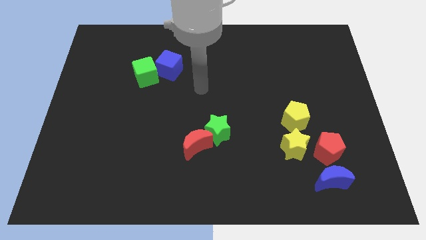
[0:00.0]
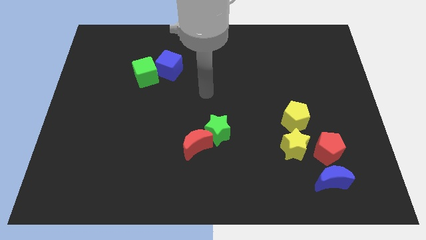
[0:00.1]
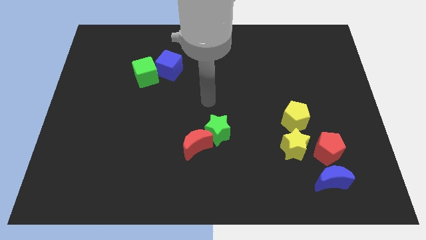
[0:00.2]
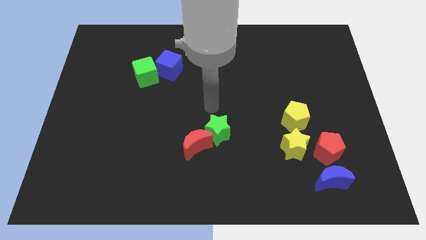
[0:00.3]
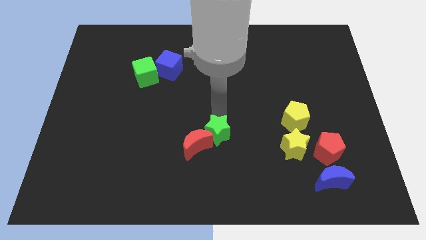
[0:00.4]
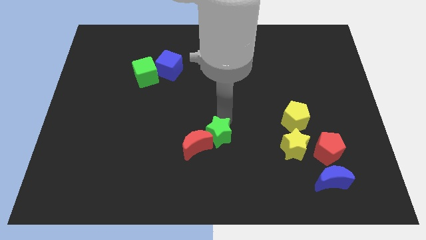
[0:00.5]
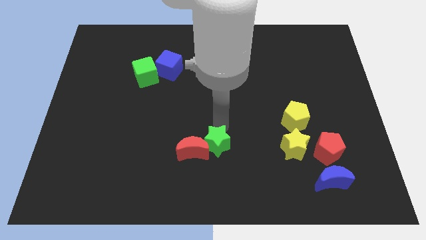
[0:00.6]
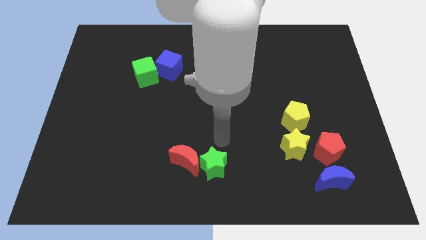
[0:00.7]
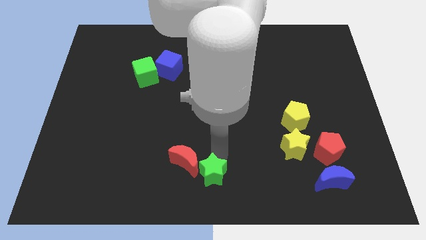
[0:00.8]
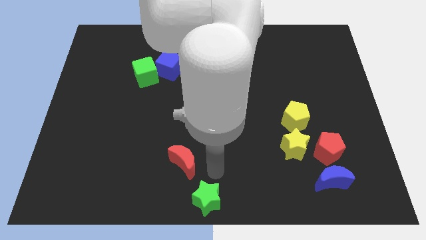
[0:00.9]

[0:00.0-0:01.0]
separate the red moon from the green star

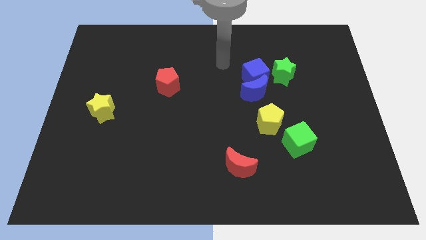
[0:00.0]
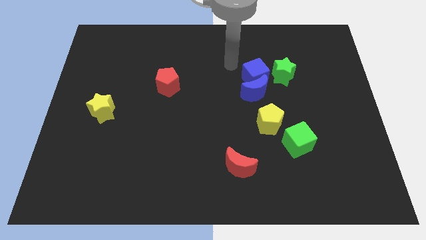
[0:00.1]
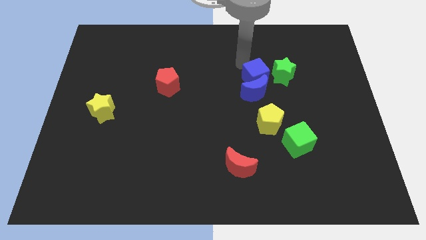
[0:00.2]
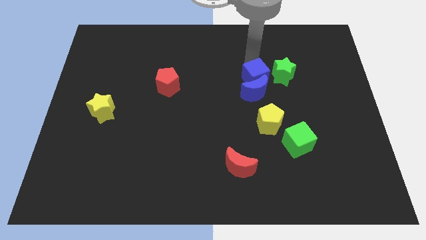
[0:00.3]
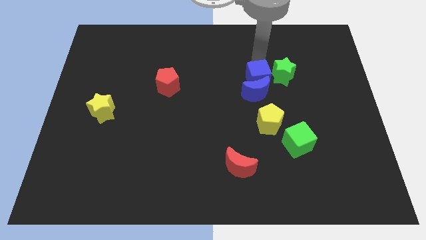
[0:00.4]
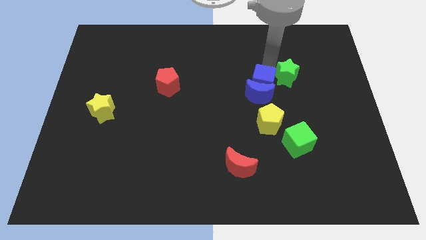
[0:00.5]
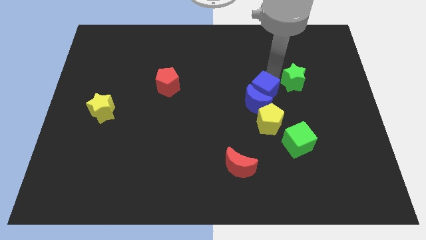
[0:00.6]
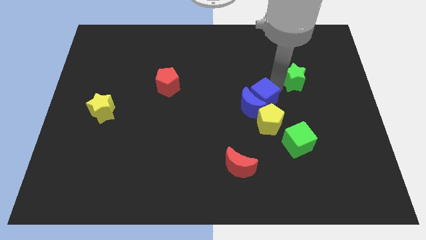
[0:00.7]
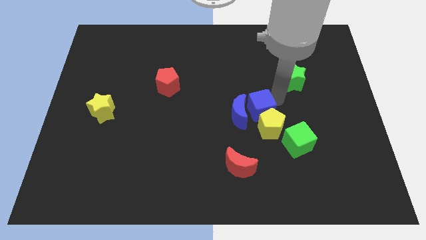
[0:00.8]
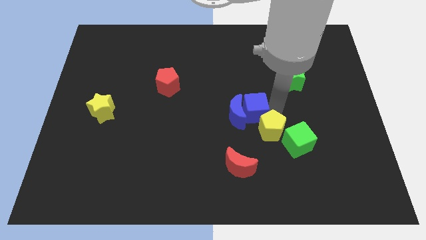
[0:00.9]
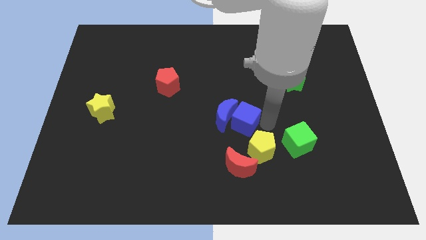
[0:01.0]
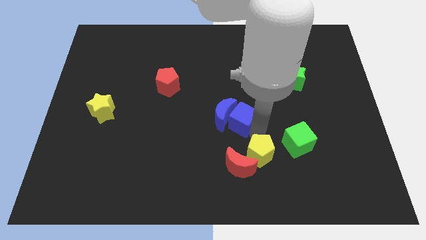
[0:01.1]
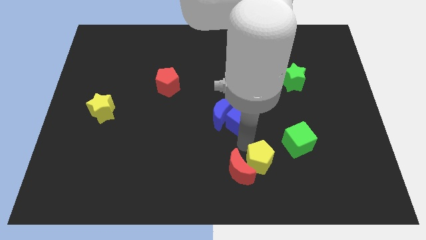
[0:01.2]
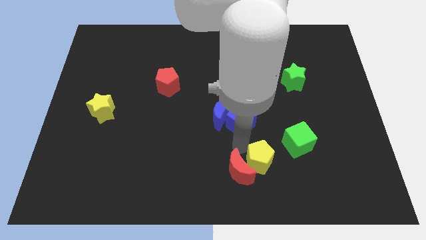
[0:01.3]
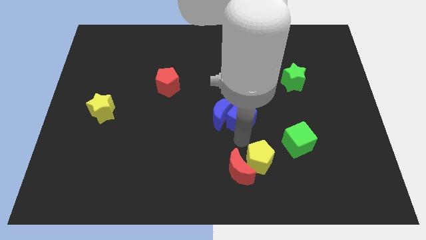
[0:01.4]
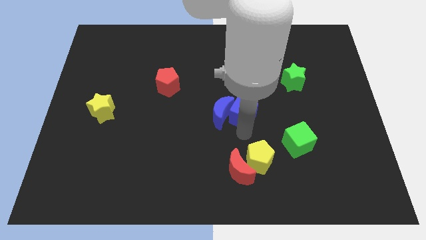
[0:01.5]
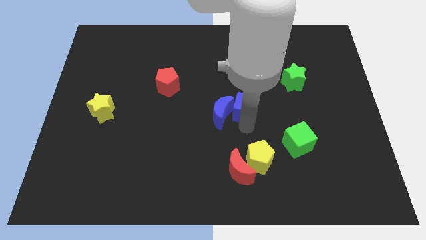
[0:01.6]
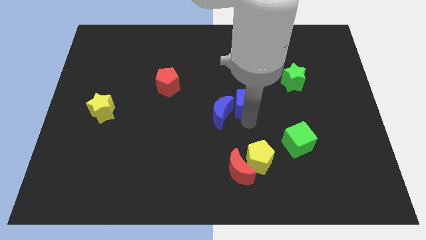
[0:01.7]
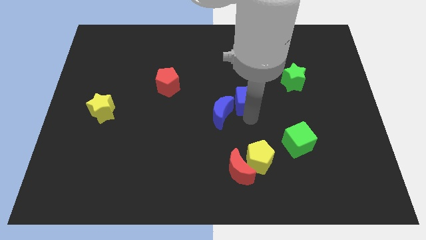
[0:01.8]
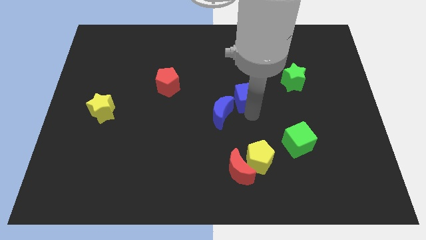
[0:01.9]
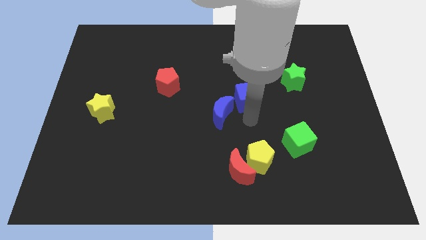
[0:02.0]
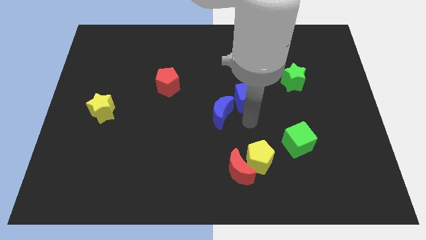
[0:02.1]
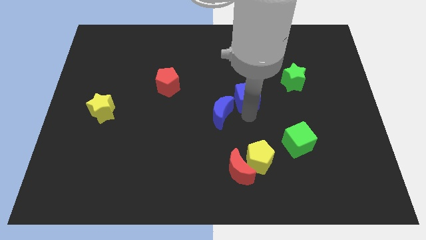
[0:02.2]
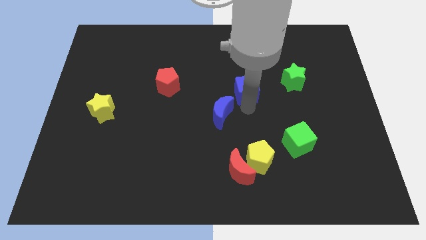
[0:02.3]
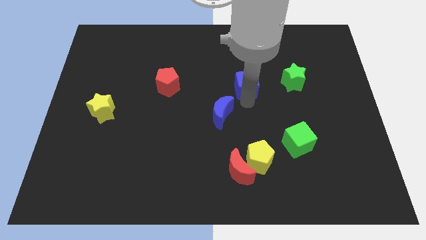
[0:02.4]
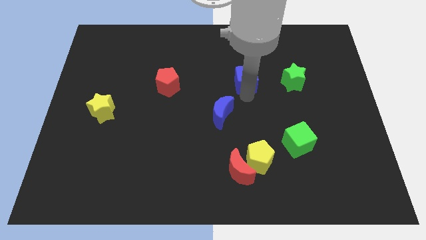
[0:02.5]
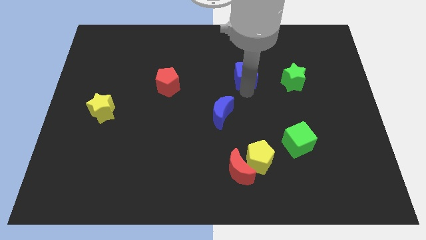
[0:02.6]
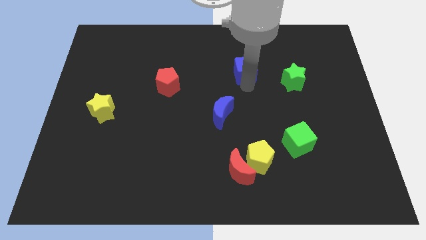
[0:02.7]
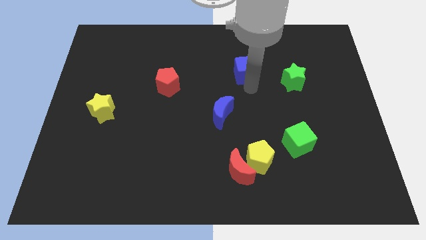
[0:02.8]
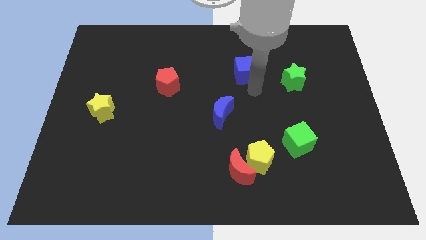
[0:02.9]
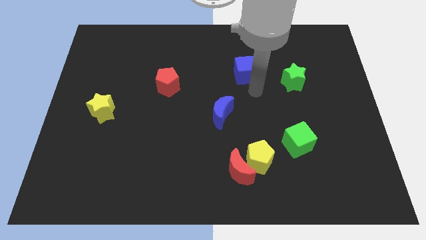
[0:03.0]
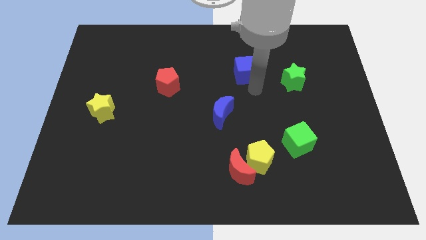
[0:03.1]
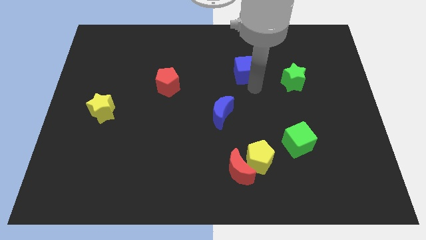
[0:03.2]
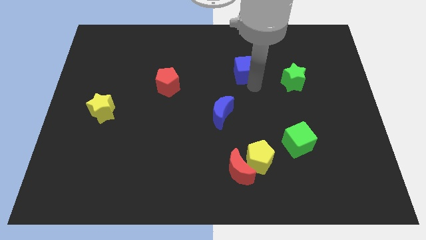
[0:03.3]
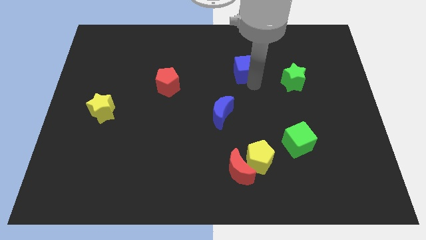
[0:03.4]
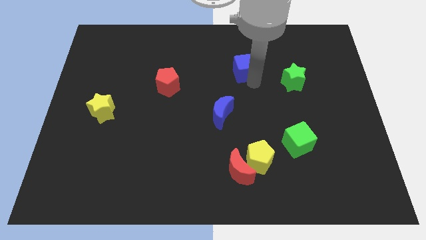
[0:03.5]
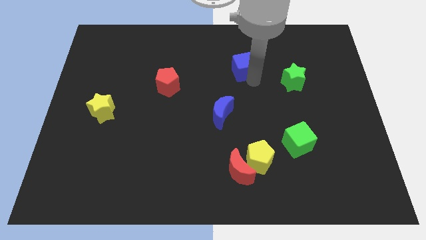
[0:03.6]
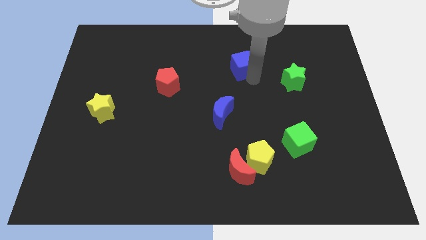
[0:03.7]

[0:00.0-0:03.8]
move the blue cube away from the blue moon and green star

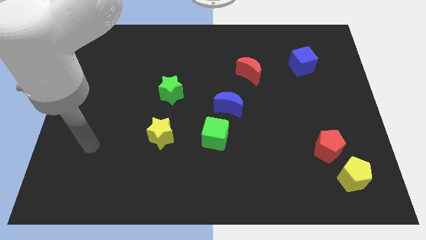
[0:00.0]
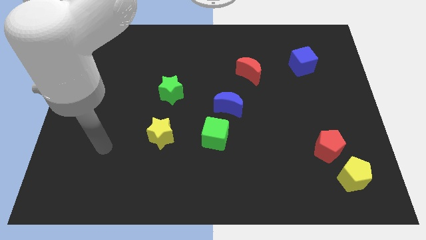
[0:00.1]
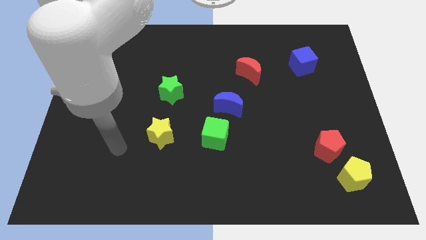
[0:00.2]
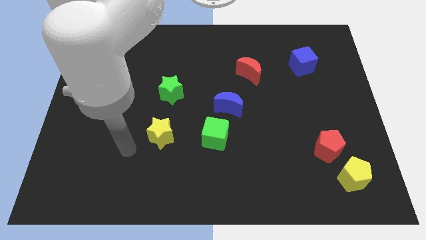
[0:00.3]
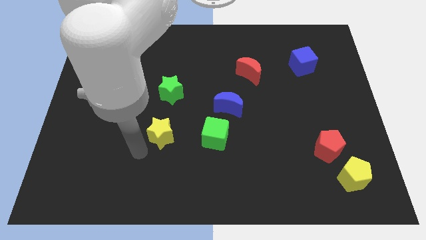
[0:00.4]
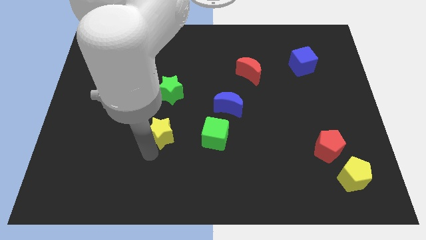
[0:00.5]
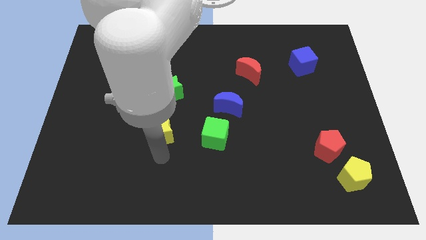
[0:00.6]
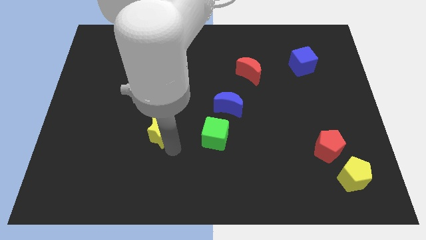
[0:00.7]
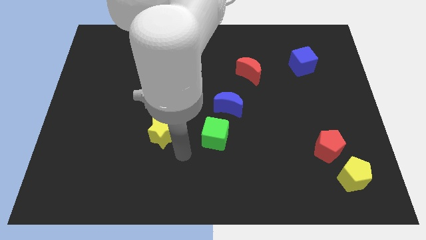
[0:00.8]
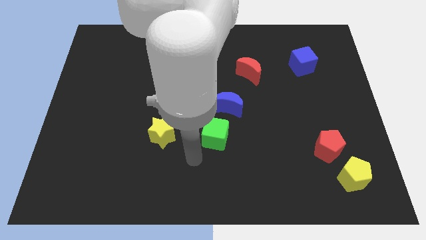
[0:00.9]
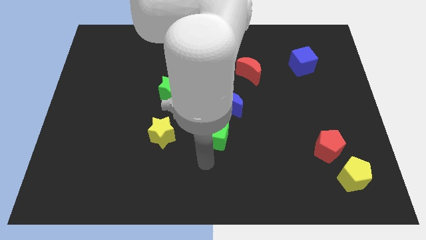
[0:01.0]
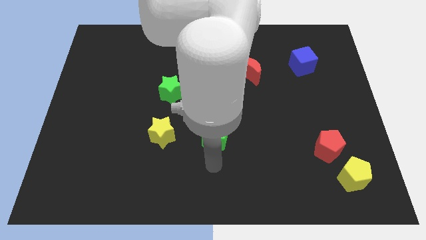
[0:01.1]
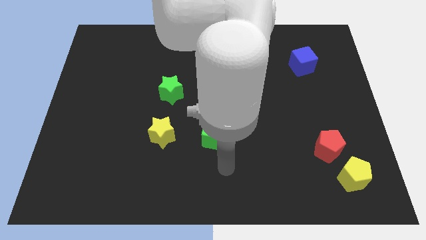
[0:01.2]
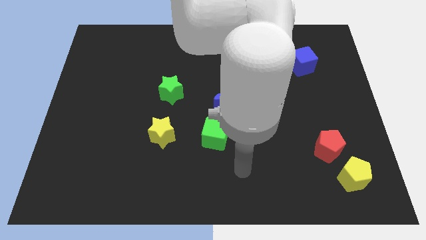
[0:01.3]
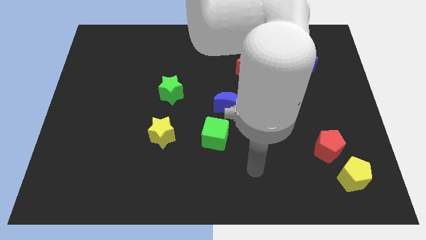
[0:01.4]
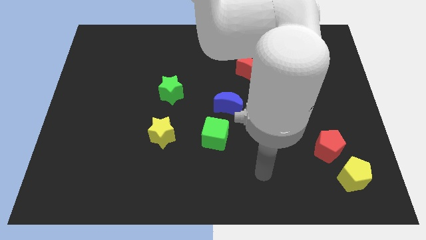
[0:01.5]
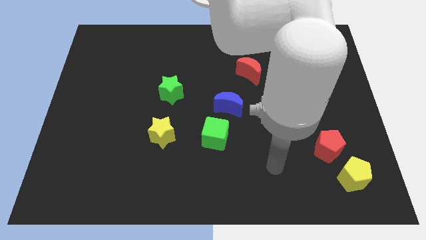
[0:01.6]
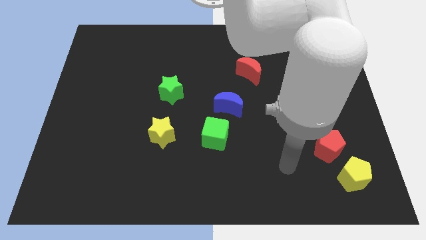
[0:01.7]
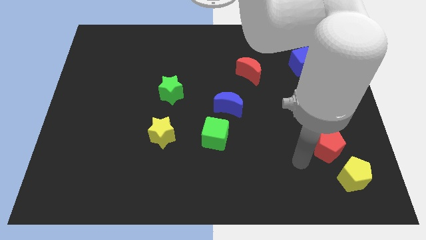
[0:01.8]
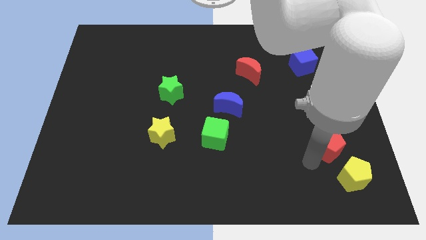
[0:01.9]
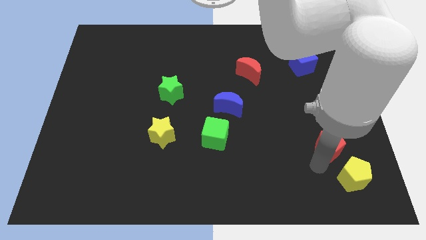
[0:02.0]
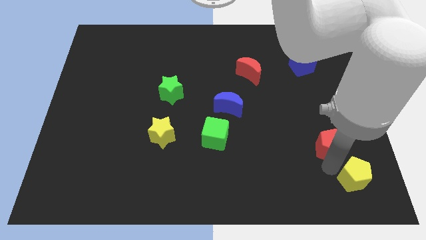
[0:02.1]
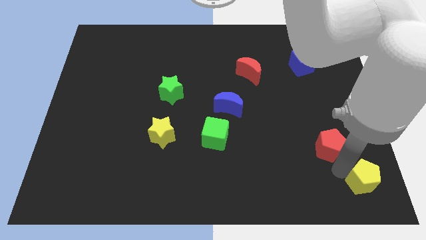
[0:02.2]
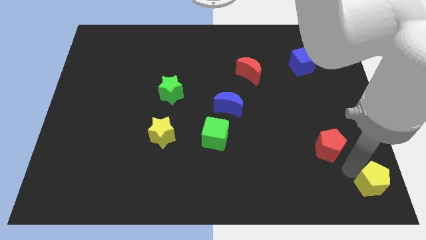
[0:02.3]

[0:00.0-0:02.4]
separate the red pentagon from the yellow pentagon

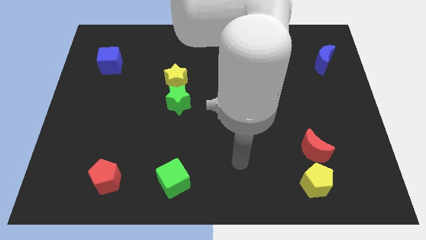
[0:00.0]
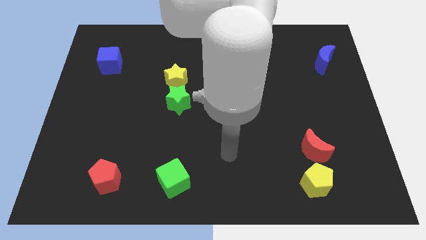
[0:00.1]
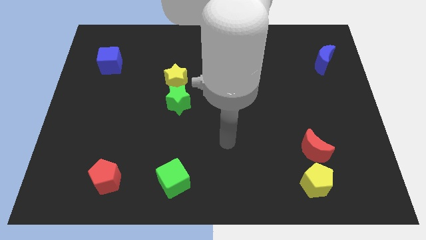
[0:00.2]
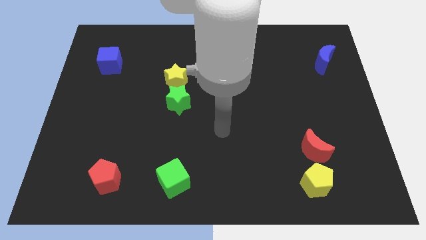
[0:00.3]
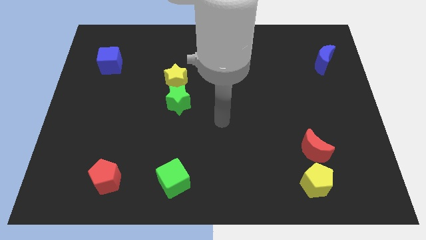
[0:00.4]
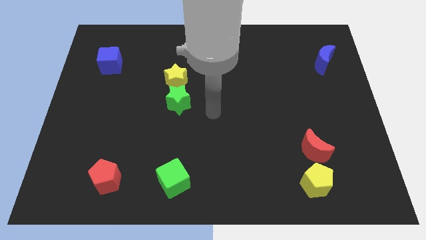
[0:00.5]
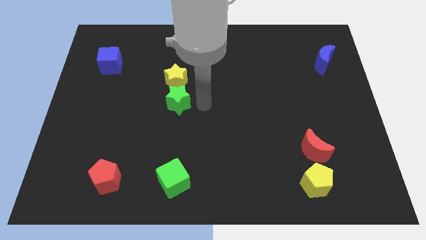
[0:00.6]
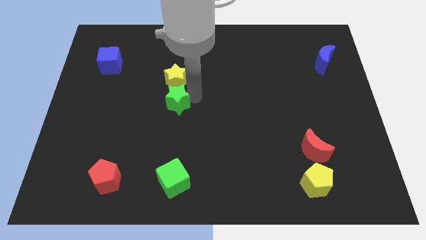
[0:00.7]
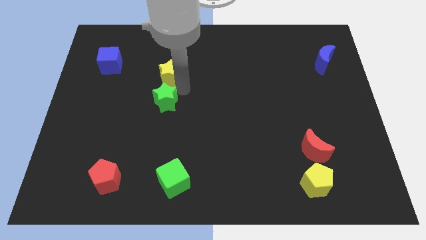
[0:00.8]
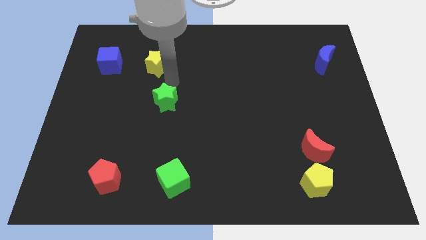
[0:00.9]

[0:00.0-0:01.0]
pull the green star apart from the yellow star

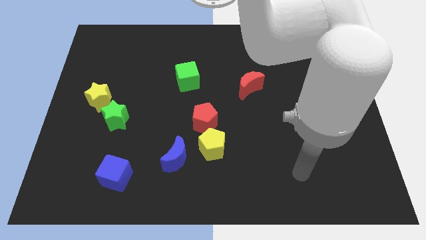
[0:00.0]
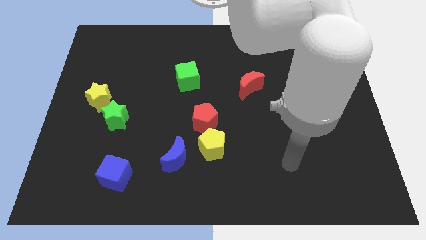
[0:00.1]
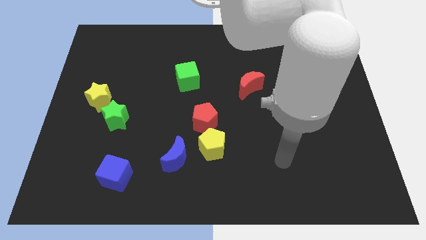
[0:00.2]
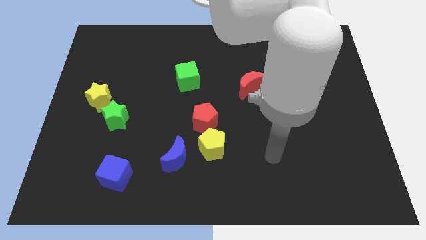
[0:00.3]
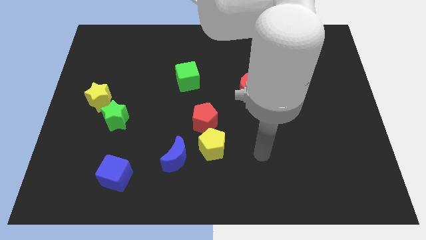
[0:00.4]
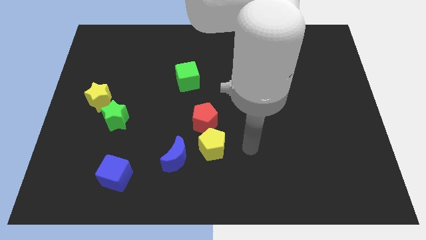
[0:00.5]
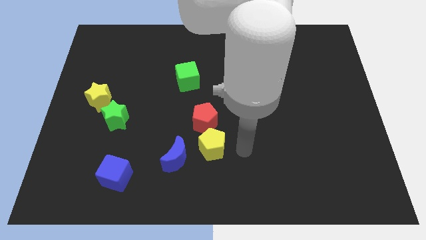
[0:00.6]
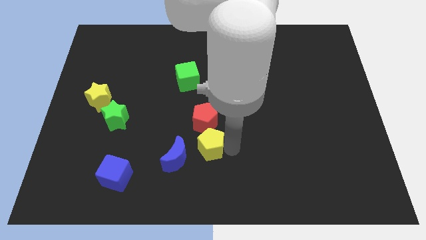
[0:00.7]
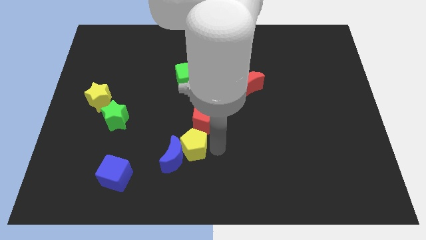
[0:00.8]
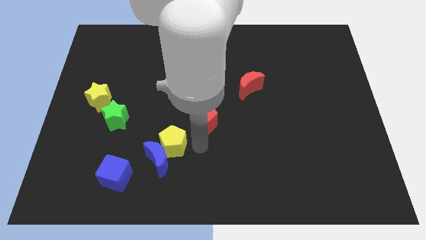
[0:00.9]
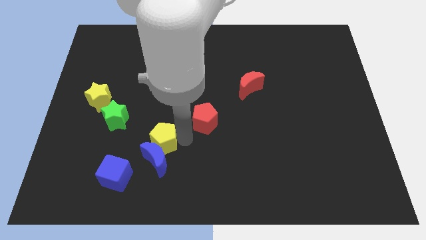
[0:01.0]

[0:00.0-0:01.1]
pull the red pentagon apart from the yellow pentagon
